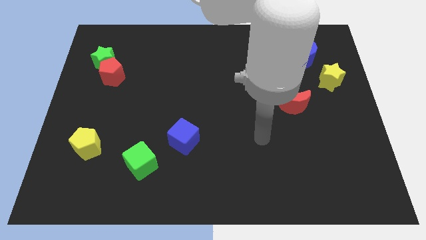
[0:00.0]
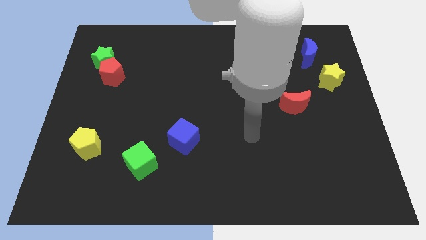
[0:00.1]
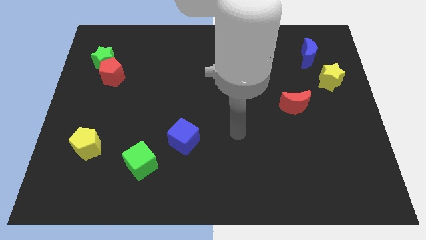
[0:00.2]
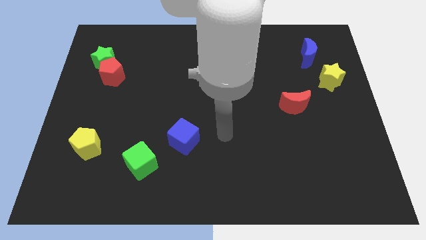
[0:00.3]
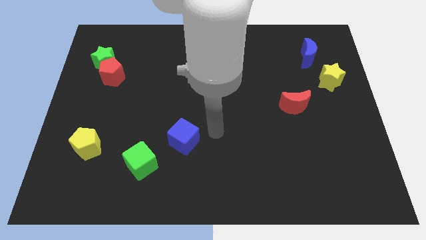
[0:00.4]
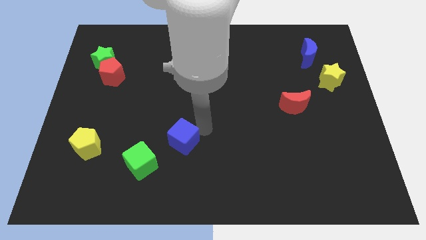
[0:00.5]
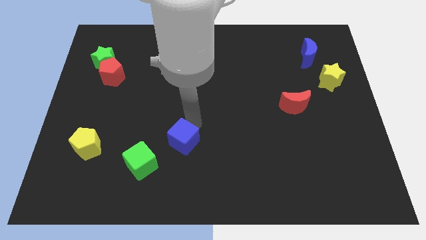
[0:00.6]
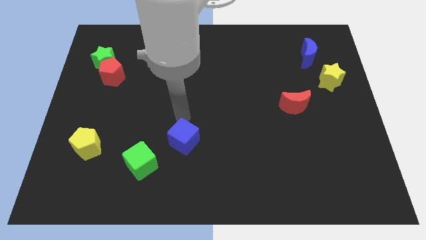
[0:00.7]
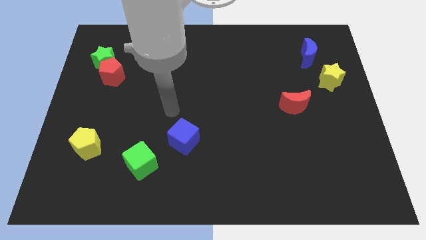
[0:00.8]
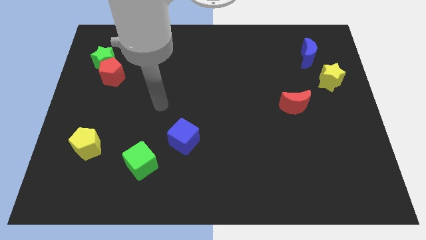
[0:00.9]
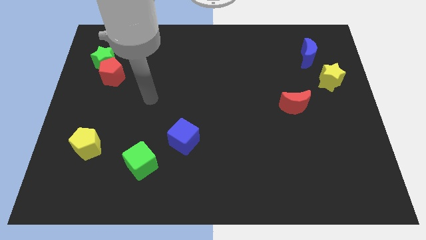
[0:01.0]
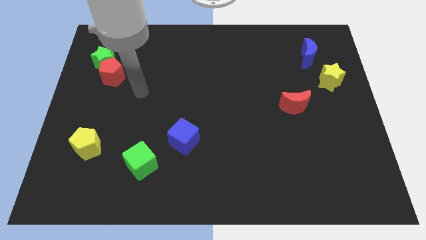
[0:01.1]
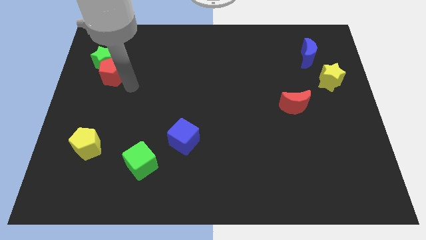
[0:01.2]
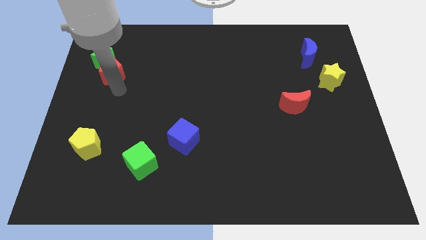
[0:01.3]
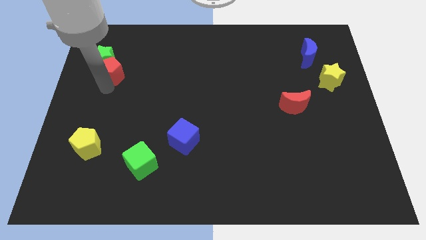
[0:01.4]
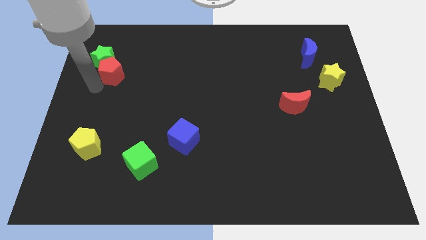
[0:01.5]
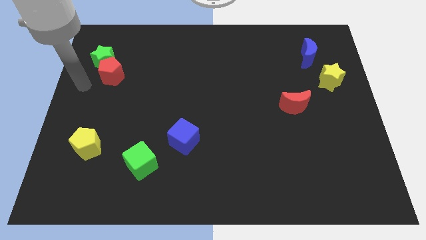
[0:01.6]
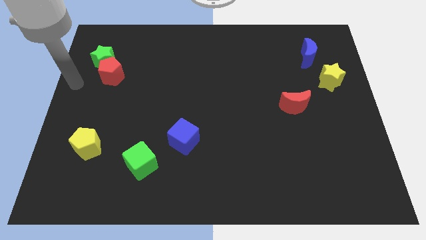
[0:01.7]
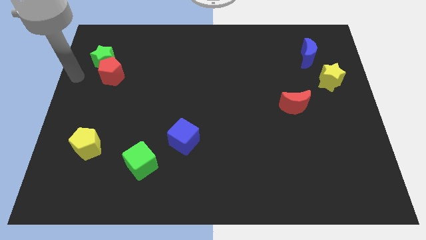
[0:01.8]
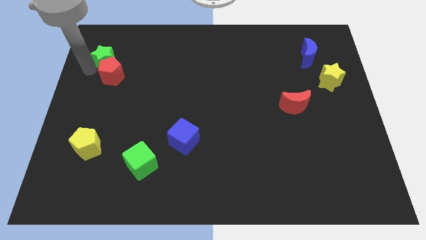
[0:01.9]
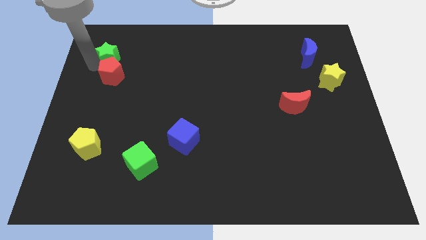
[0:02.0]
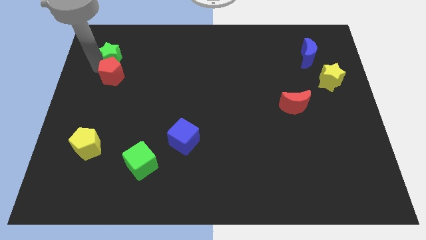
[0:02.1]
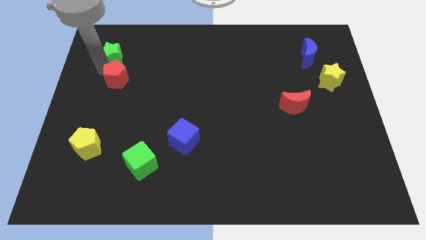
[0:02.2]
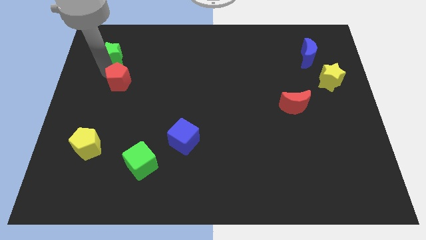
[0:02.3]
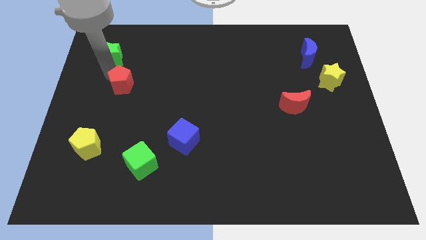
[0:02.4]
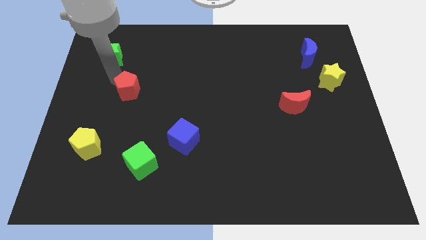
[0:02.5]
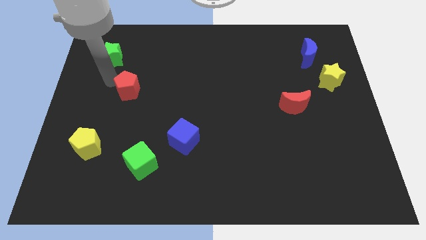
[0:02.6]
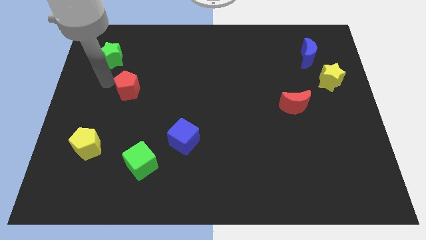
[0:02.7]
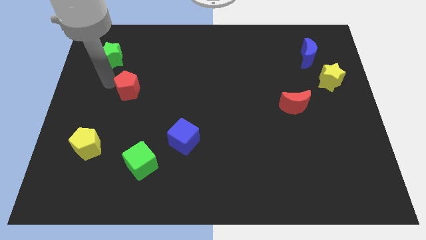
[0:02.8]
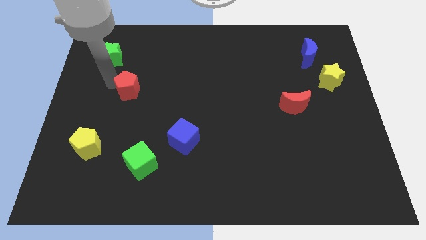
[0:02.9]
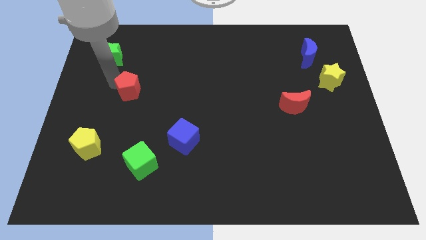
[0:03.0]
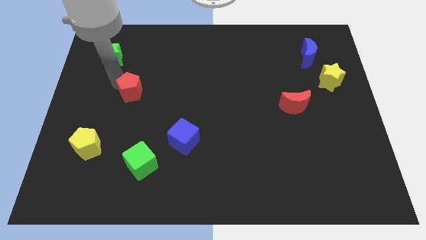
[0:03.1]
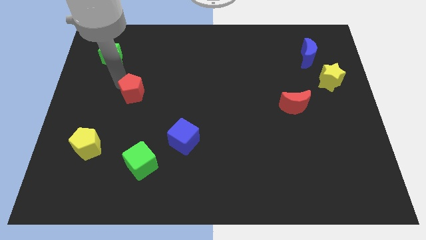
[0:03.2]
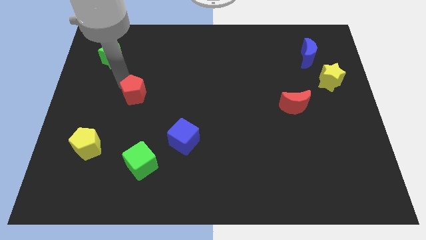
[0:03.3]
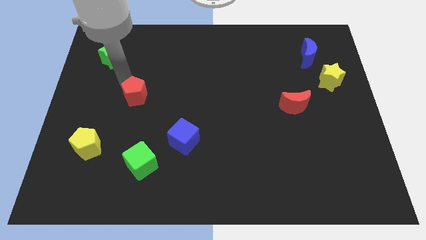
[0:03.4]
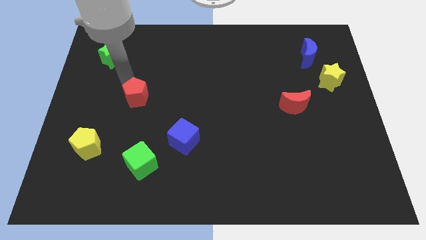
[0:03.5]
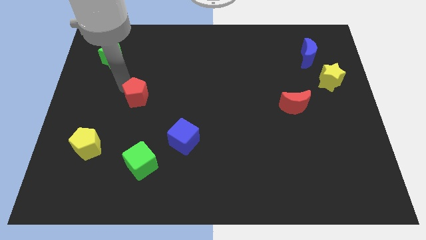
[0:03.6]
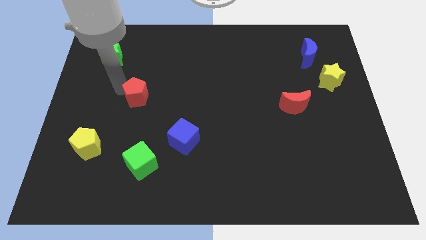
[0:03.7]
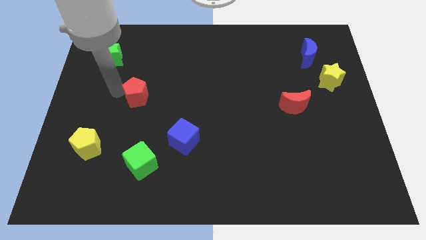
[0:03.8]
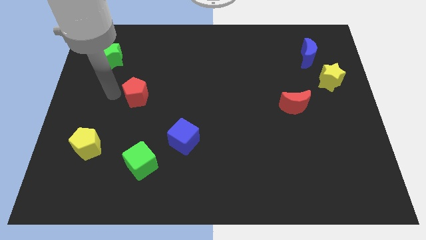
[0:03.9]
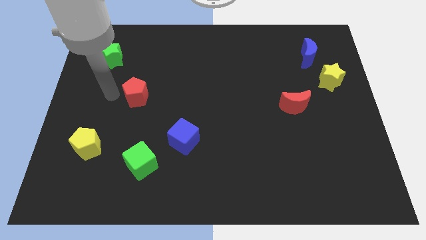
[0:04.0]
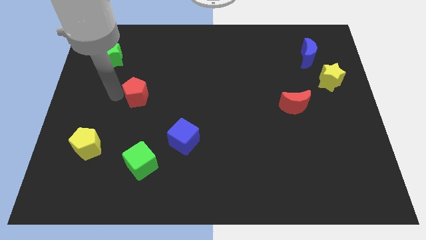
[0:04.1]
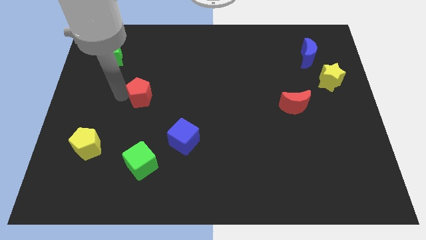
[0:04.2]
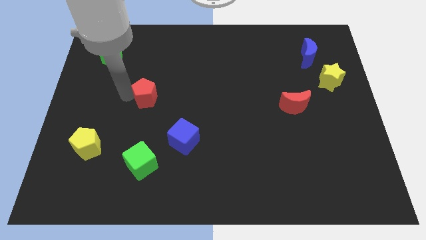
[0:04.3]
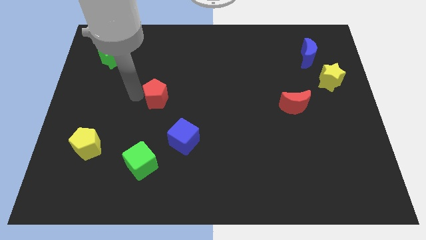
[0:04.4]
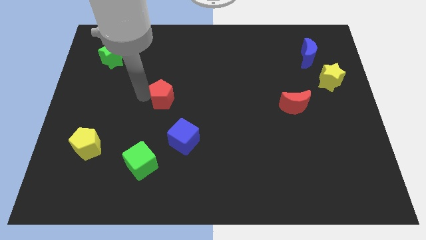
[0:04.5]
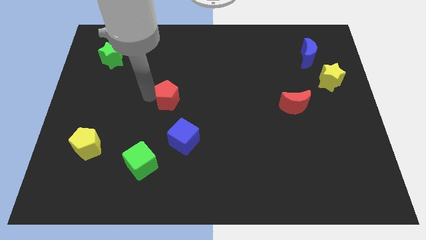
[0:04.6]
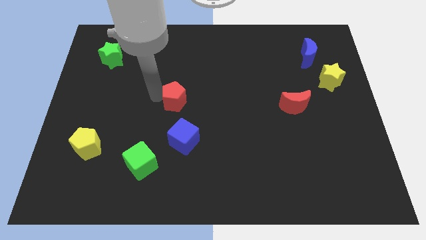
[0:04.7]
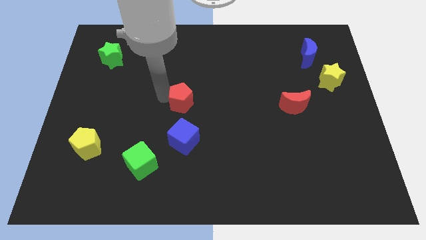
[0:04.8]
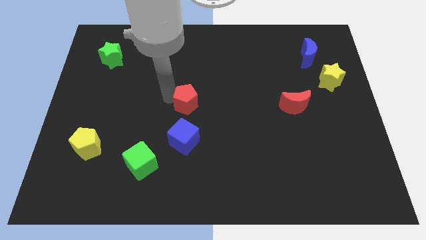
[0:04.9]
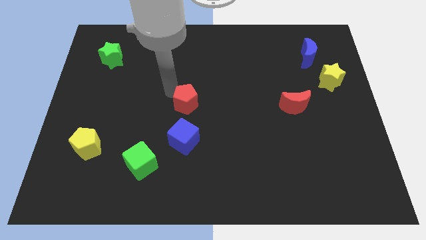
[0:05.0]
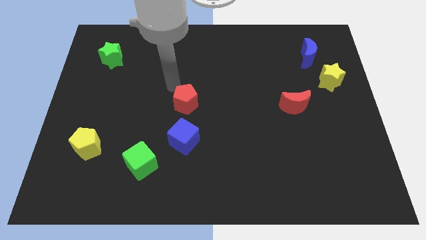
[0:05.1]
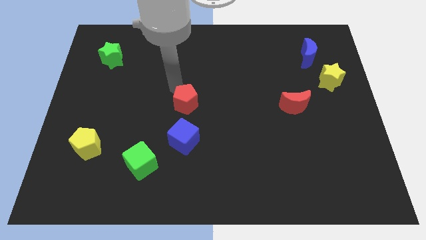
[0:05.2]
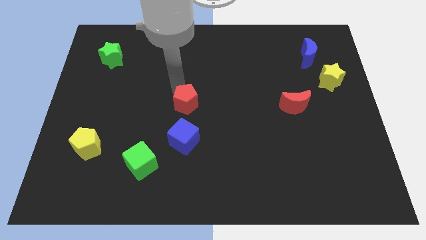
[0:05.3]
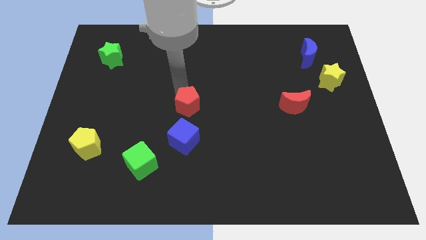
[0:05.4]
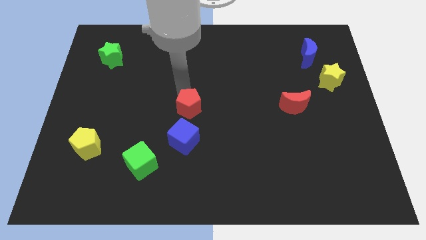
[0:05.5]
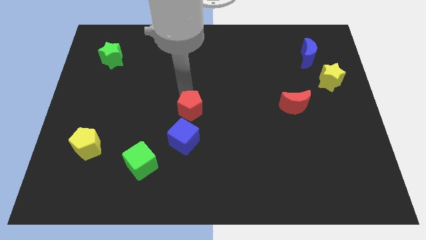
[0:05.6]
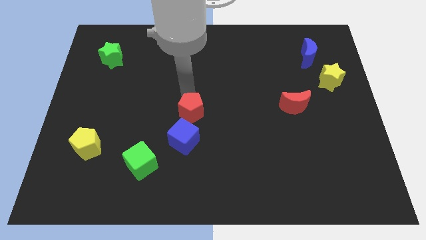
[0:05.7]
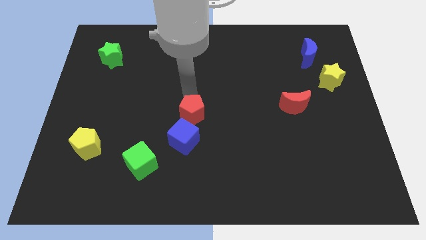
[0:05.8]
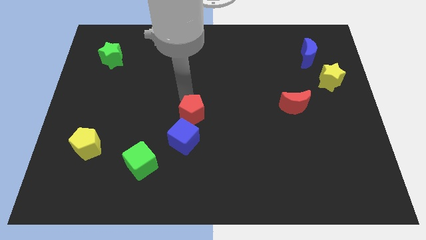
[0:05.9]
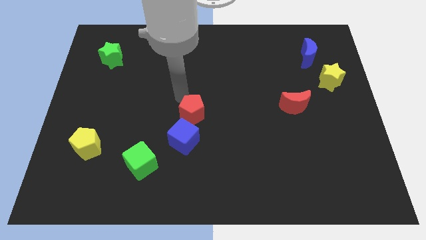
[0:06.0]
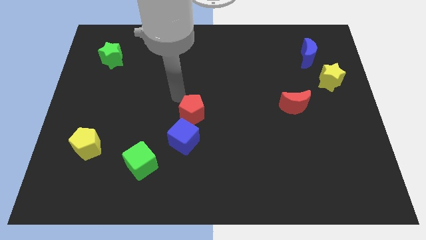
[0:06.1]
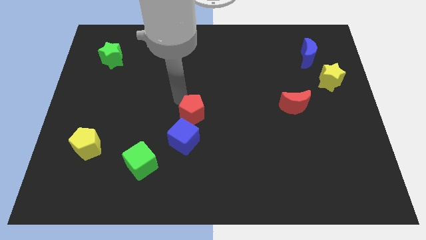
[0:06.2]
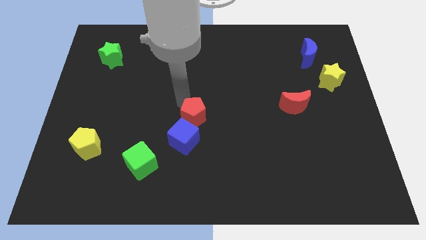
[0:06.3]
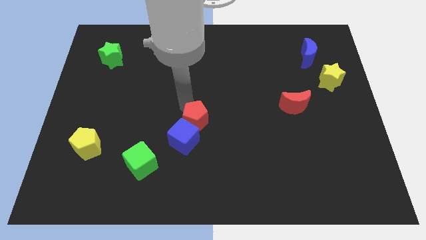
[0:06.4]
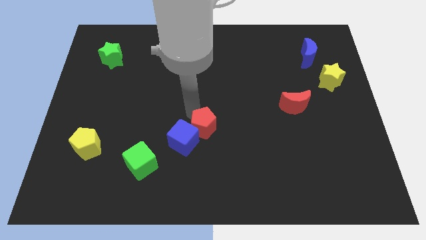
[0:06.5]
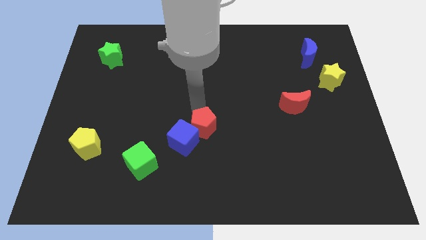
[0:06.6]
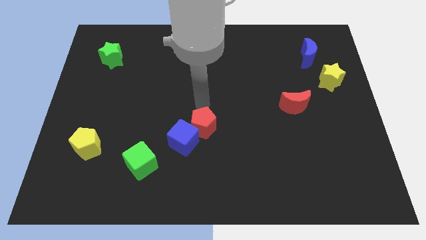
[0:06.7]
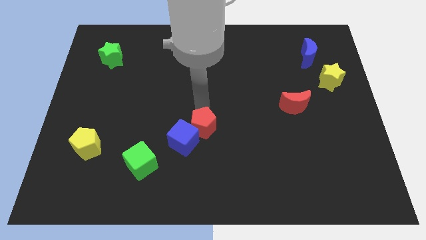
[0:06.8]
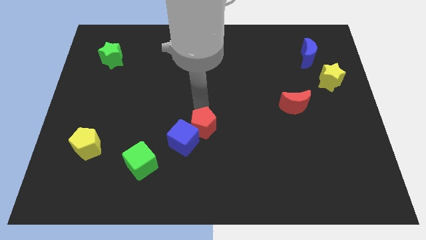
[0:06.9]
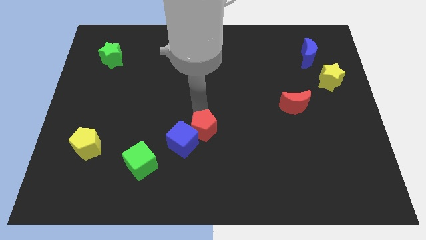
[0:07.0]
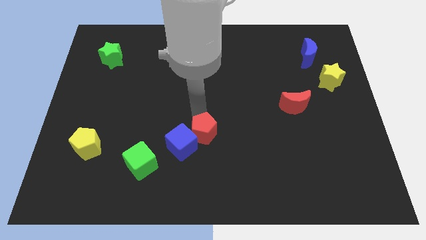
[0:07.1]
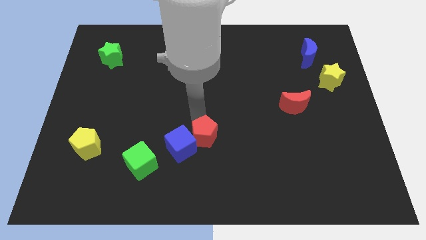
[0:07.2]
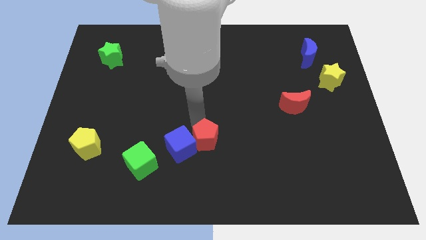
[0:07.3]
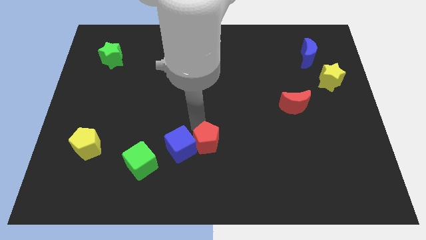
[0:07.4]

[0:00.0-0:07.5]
push the red pentagon to the bottom right of the blue cube
